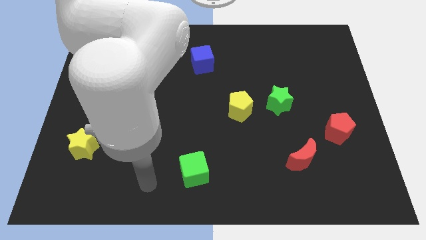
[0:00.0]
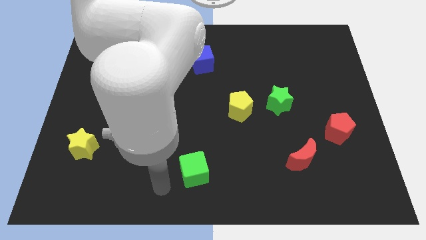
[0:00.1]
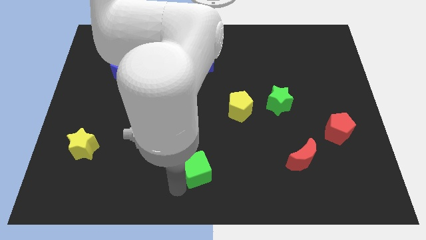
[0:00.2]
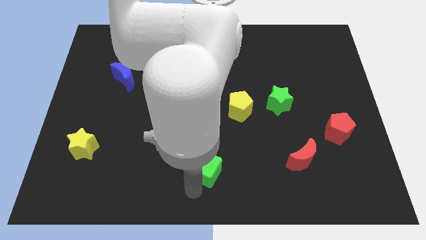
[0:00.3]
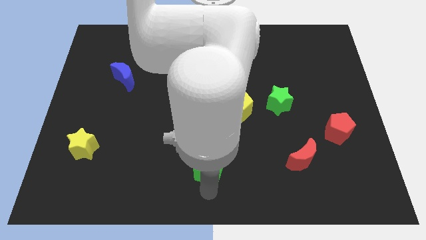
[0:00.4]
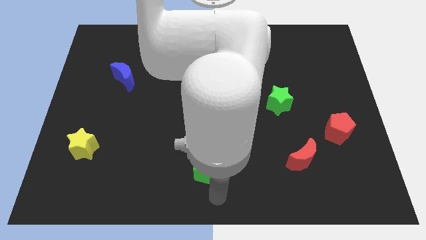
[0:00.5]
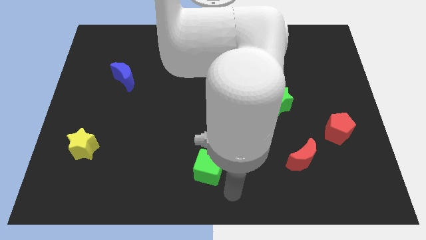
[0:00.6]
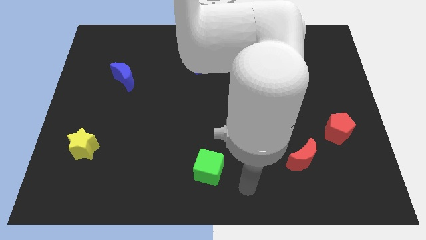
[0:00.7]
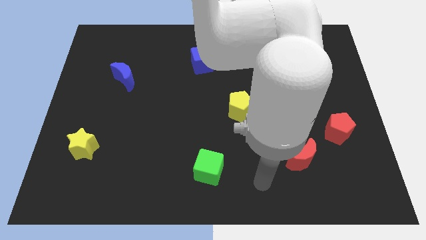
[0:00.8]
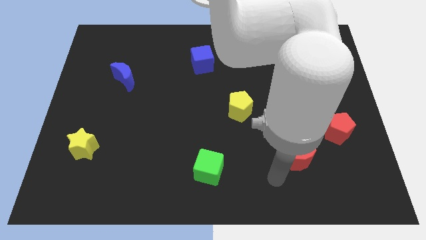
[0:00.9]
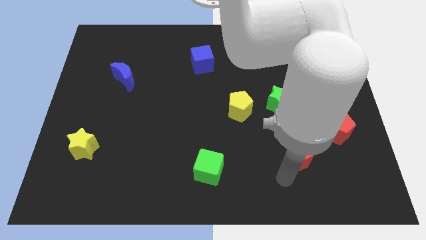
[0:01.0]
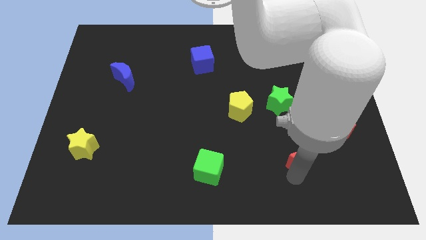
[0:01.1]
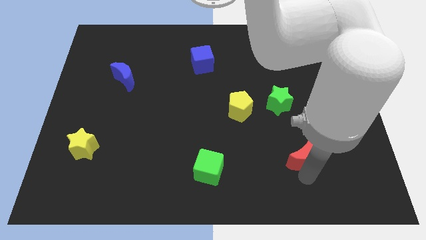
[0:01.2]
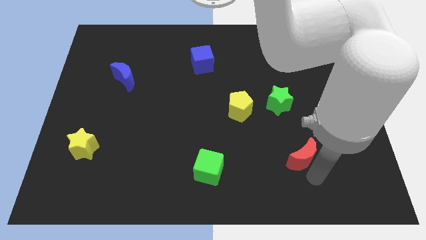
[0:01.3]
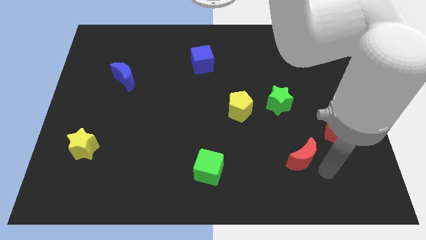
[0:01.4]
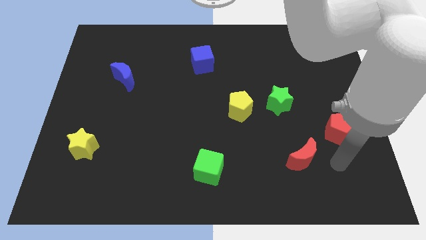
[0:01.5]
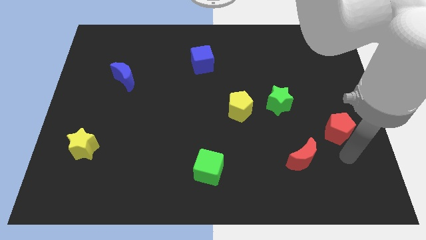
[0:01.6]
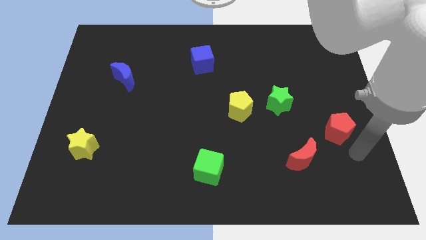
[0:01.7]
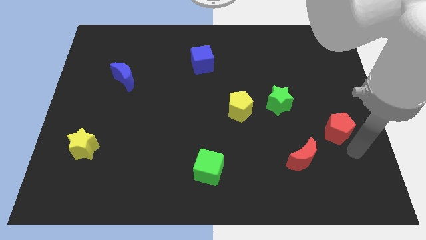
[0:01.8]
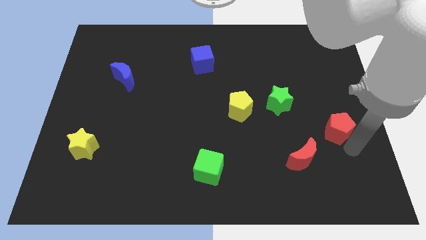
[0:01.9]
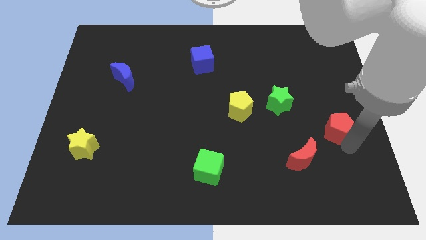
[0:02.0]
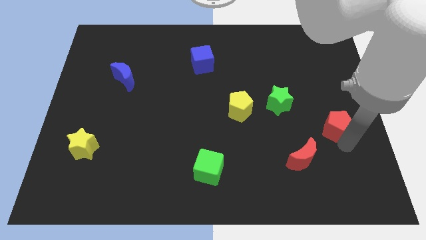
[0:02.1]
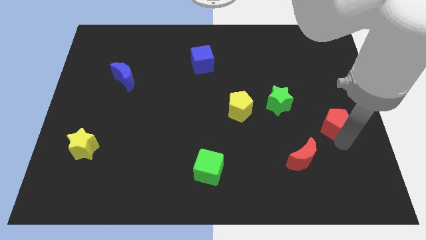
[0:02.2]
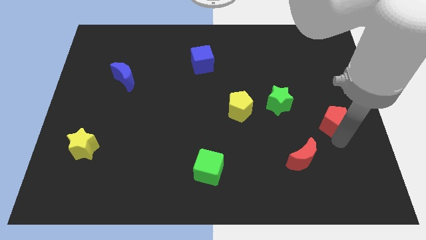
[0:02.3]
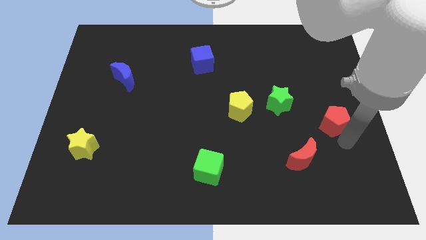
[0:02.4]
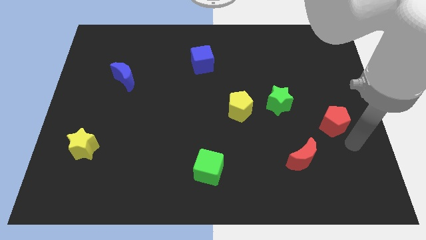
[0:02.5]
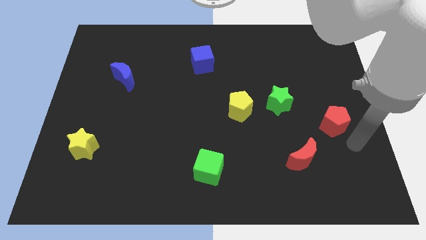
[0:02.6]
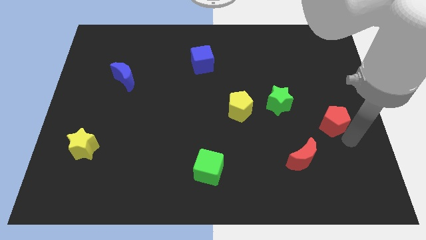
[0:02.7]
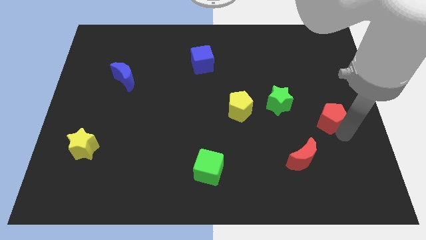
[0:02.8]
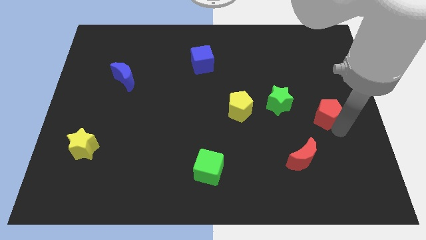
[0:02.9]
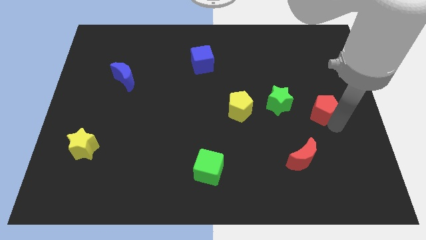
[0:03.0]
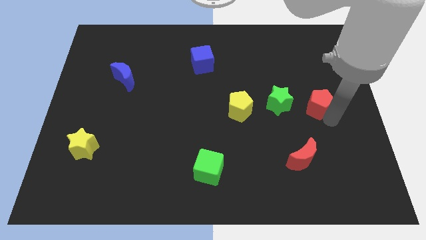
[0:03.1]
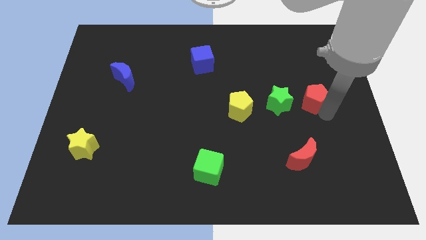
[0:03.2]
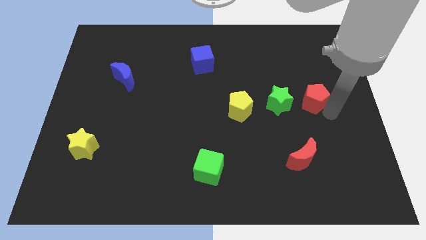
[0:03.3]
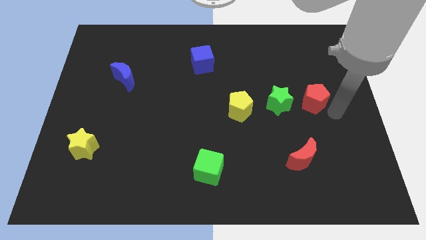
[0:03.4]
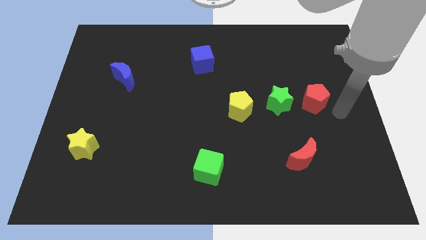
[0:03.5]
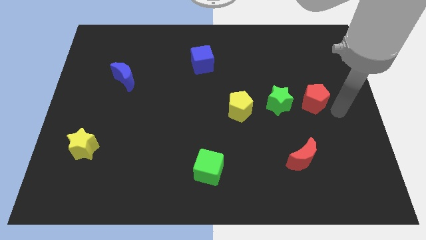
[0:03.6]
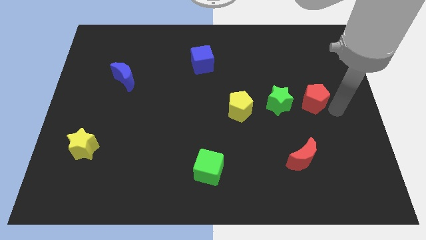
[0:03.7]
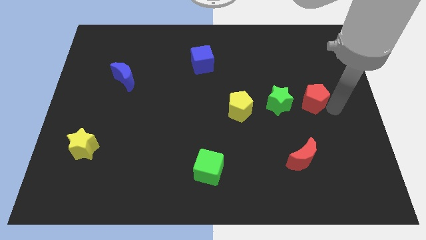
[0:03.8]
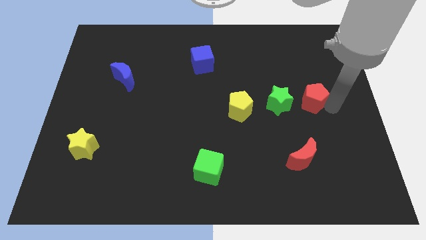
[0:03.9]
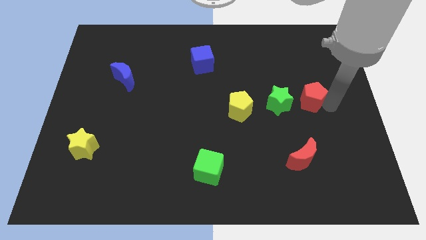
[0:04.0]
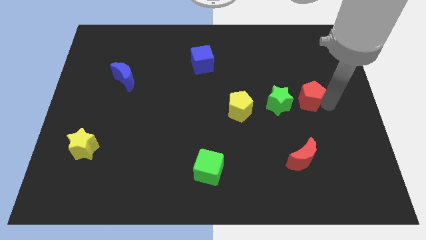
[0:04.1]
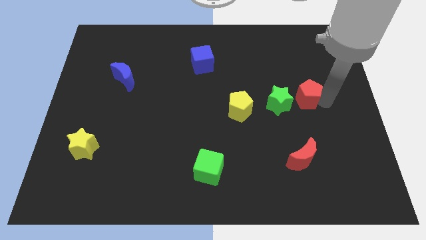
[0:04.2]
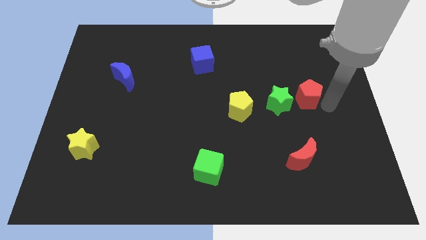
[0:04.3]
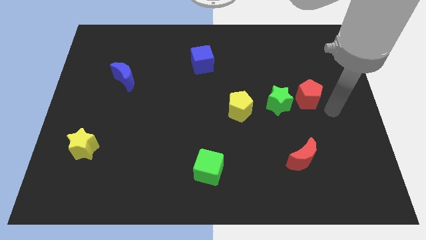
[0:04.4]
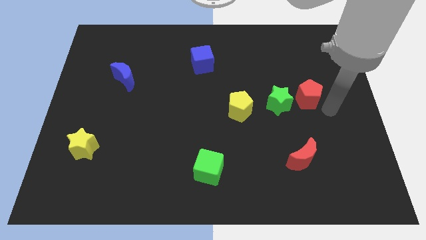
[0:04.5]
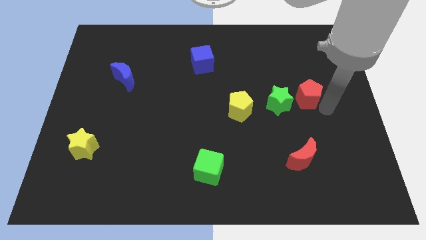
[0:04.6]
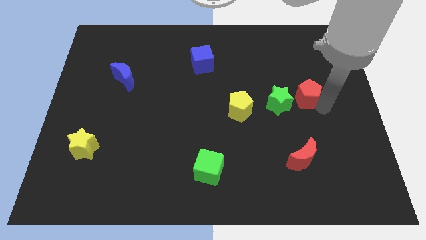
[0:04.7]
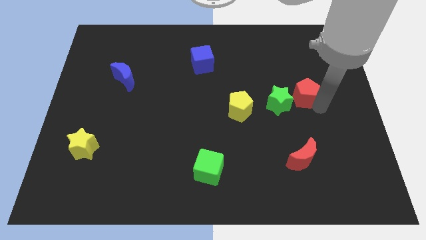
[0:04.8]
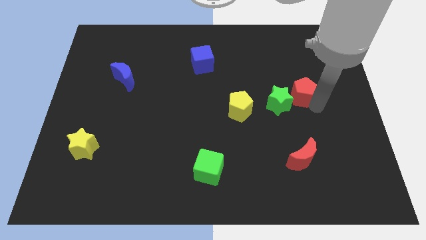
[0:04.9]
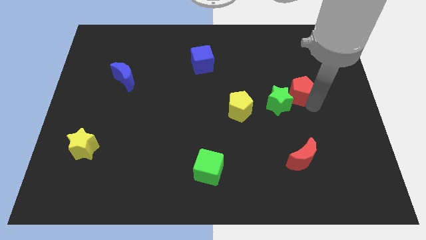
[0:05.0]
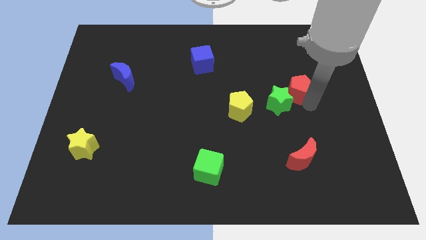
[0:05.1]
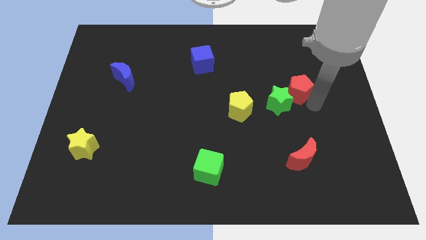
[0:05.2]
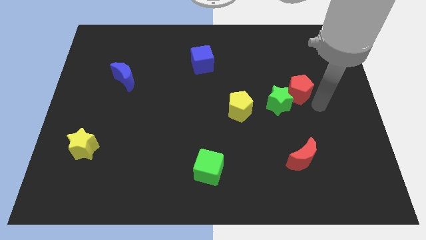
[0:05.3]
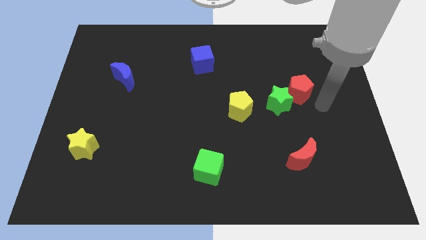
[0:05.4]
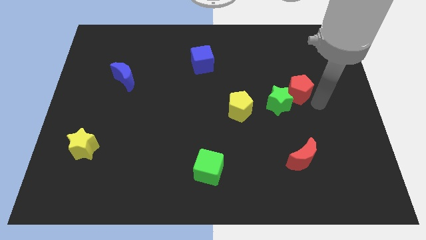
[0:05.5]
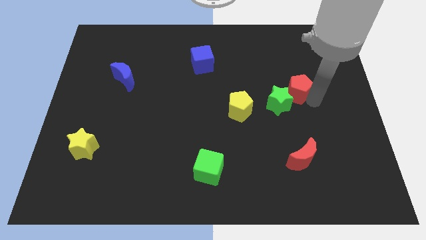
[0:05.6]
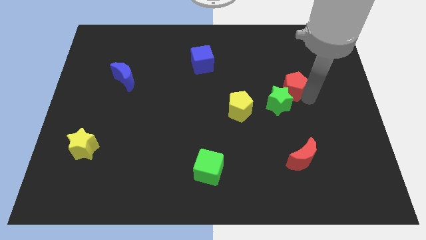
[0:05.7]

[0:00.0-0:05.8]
move the red pentagon to the top of the green star
